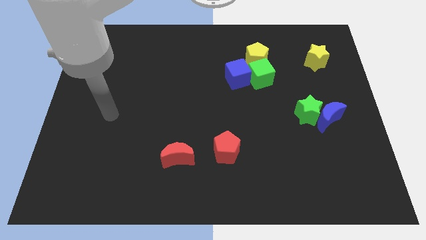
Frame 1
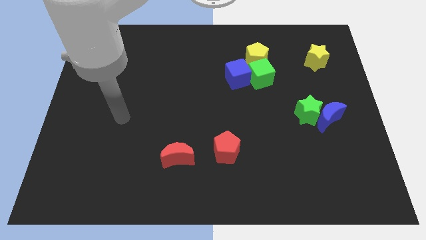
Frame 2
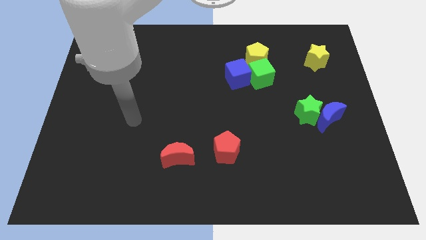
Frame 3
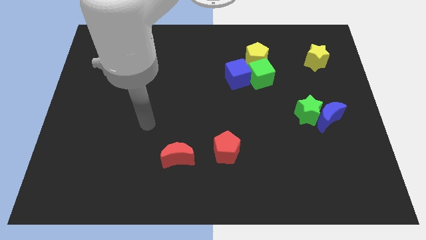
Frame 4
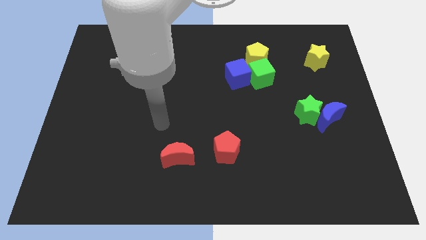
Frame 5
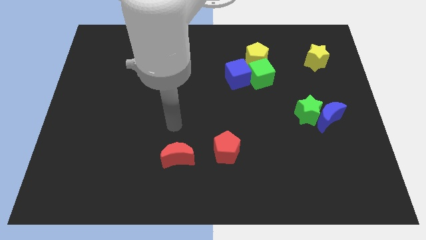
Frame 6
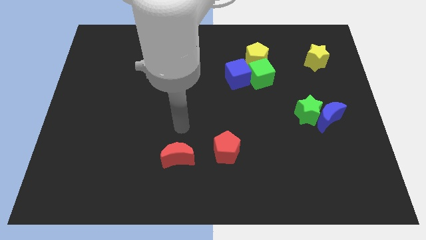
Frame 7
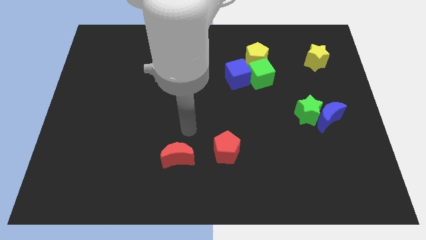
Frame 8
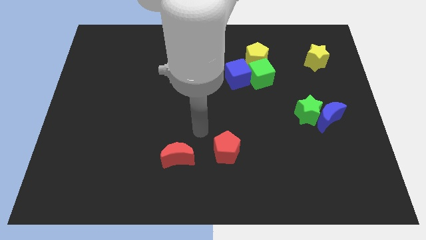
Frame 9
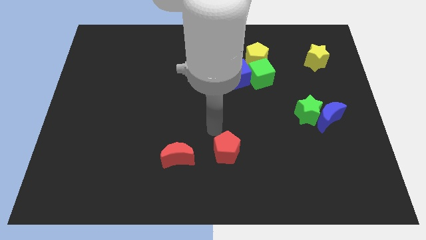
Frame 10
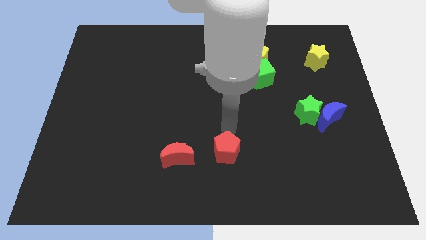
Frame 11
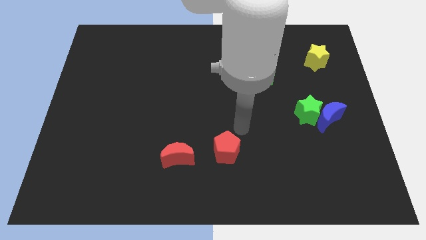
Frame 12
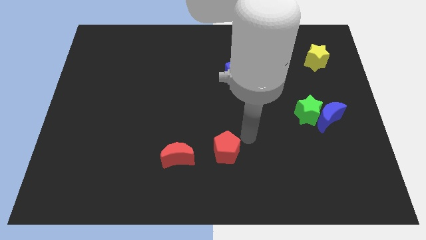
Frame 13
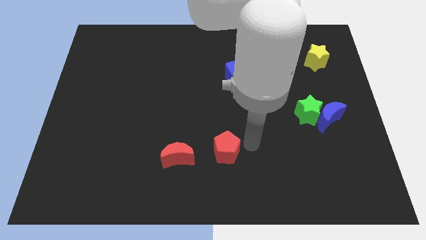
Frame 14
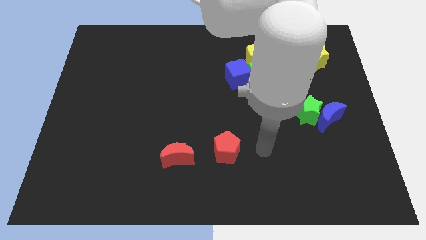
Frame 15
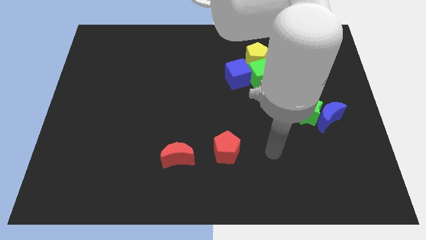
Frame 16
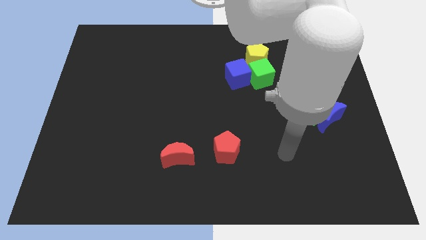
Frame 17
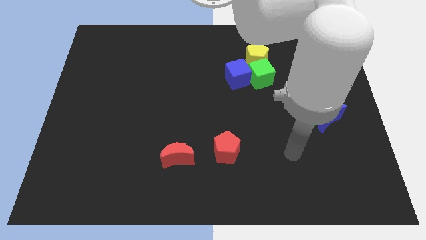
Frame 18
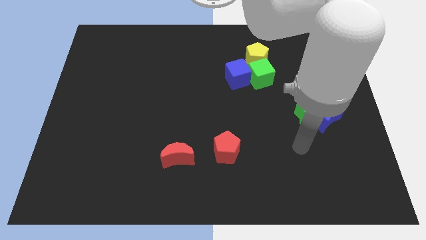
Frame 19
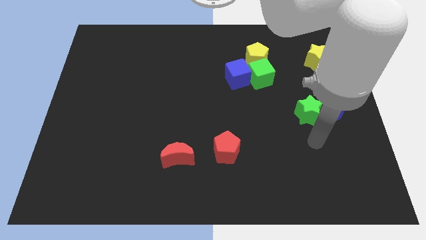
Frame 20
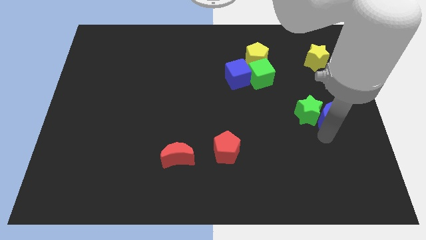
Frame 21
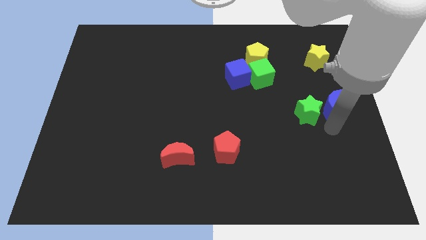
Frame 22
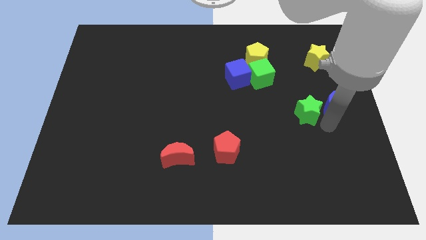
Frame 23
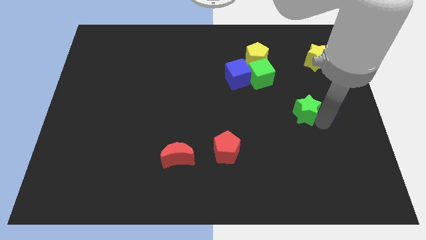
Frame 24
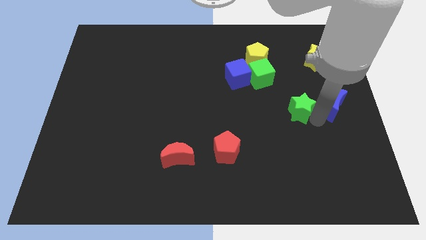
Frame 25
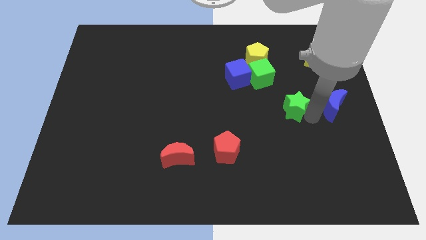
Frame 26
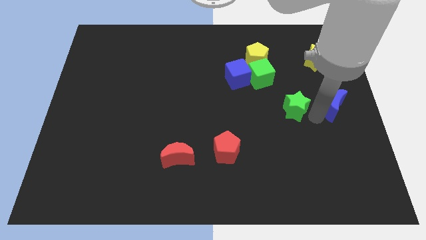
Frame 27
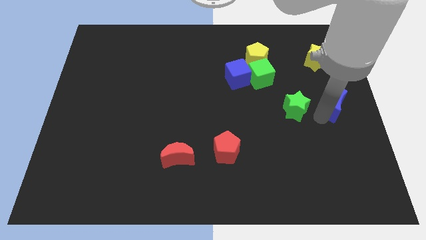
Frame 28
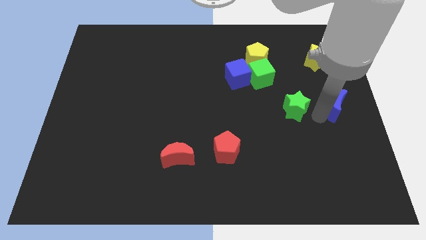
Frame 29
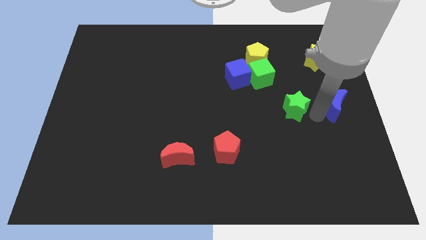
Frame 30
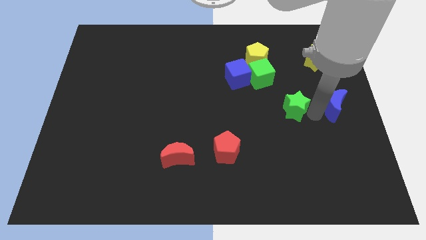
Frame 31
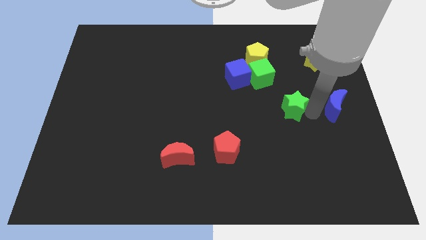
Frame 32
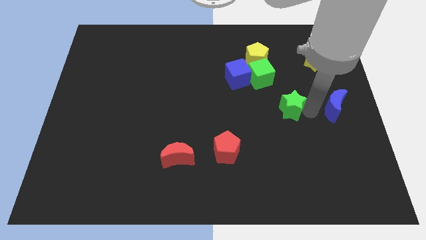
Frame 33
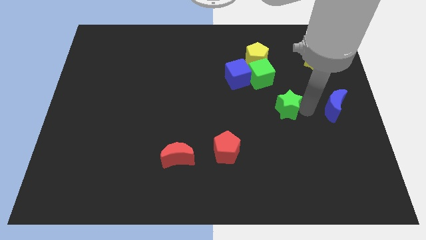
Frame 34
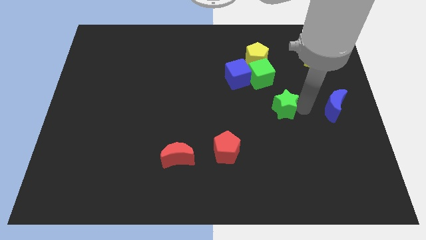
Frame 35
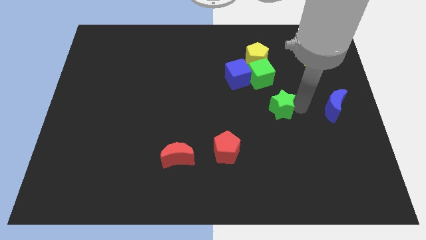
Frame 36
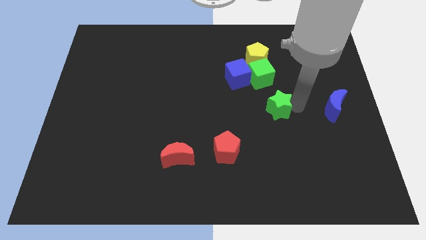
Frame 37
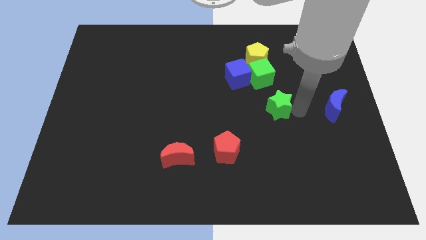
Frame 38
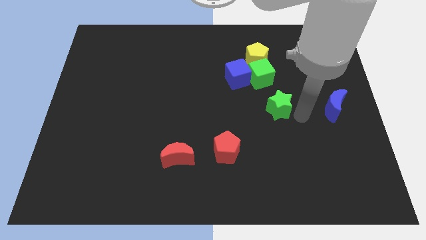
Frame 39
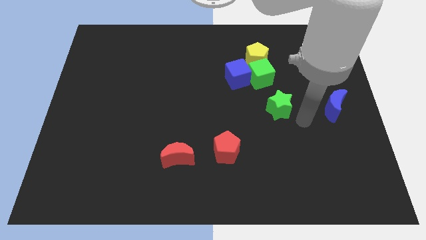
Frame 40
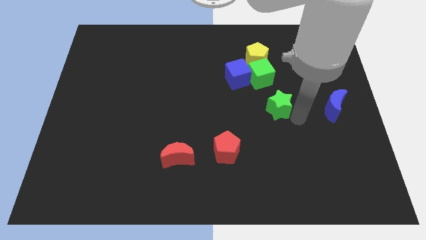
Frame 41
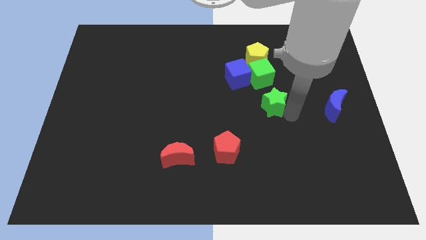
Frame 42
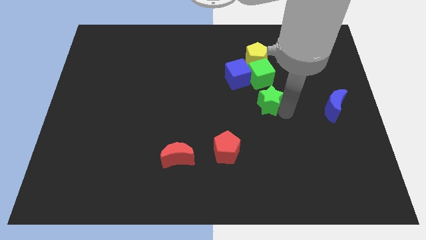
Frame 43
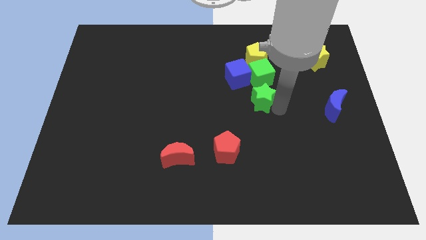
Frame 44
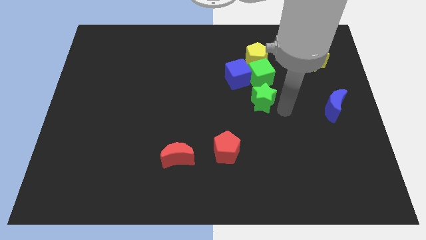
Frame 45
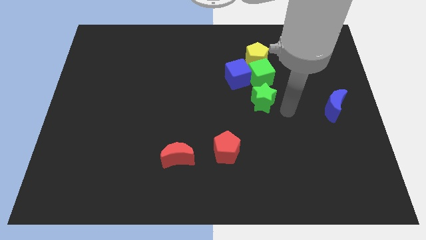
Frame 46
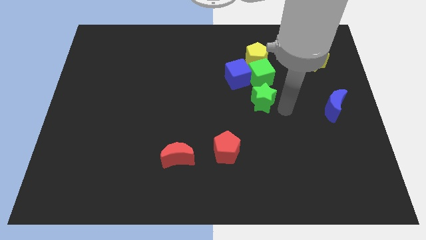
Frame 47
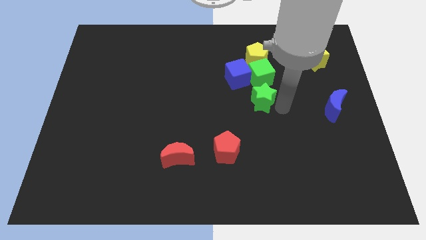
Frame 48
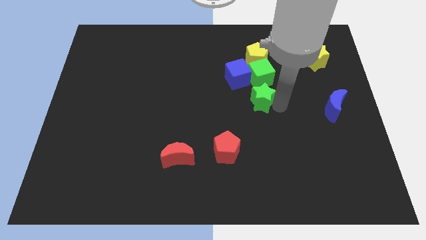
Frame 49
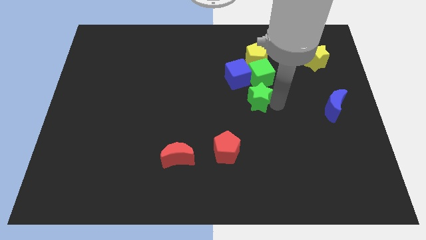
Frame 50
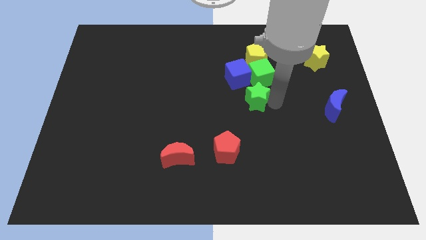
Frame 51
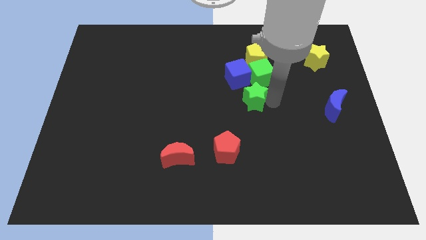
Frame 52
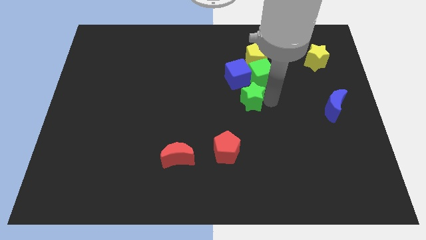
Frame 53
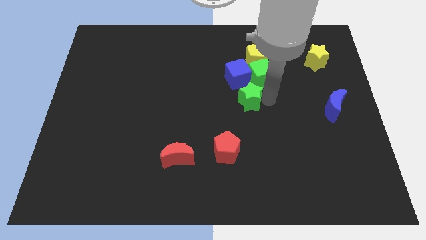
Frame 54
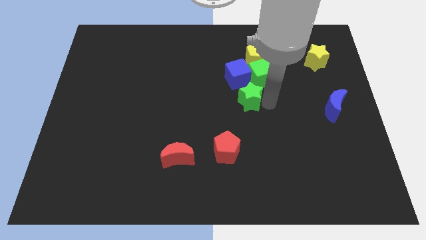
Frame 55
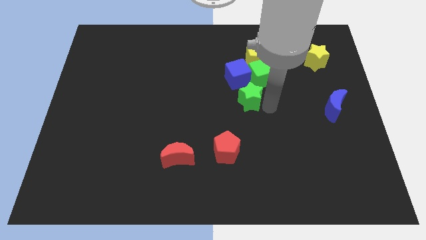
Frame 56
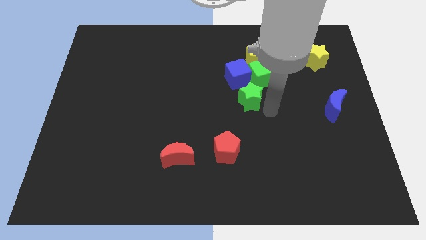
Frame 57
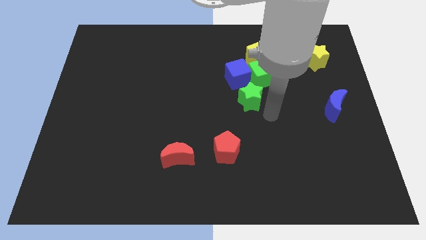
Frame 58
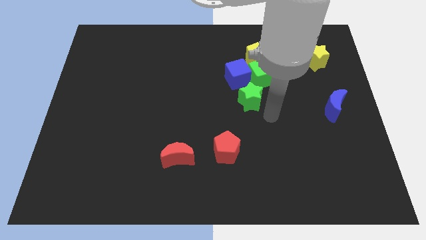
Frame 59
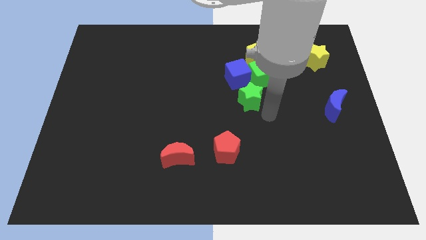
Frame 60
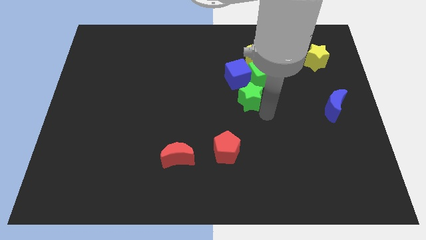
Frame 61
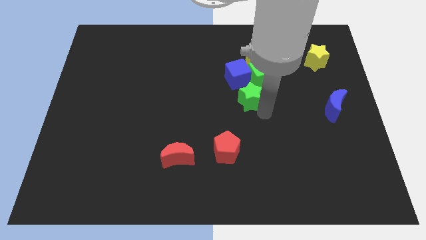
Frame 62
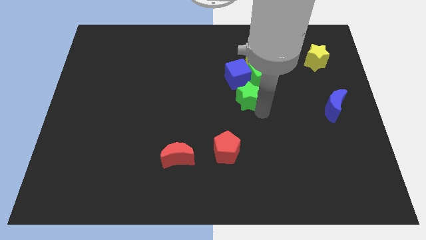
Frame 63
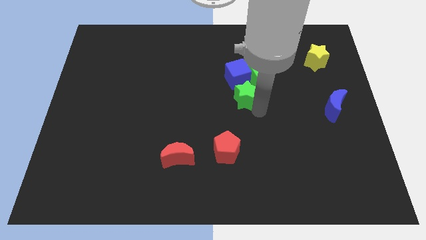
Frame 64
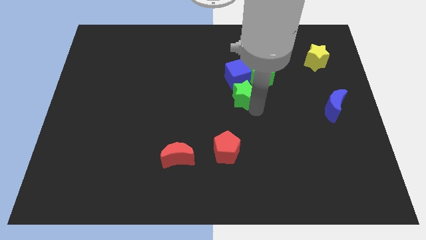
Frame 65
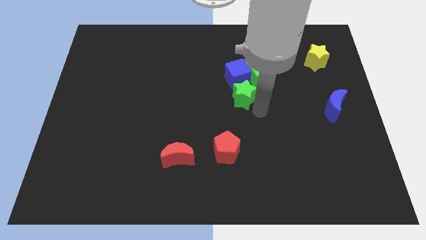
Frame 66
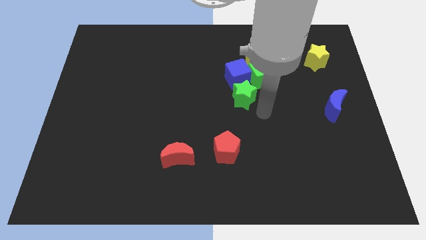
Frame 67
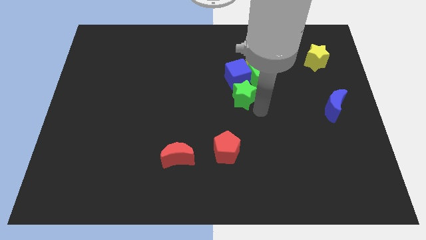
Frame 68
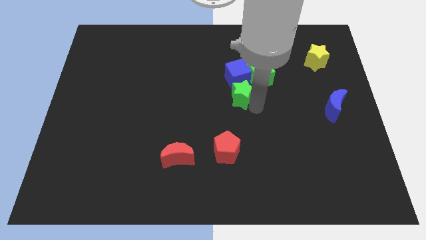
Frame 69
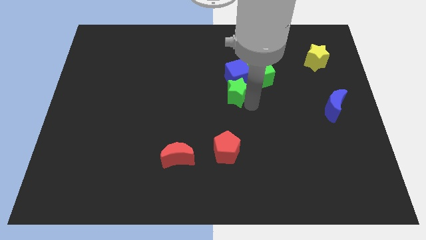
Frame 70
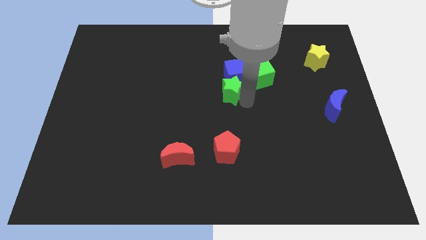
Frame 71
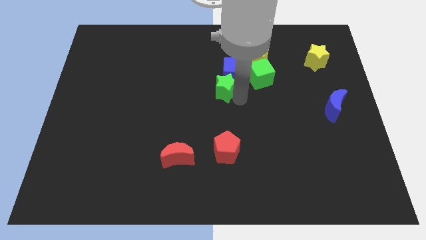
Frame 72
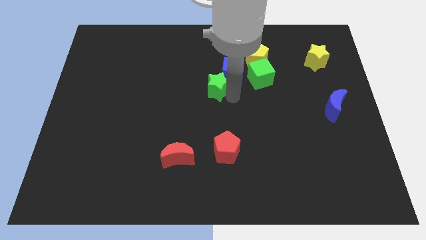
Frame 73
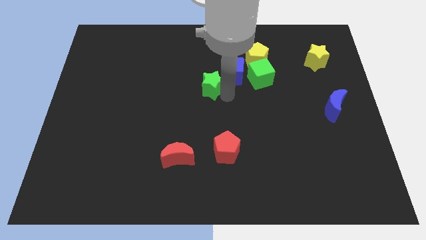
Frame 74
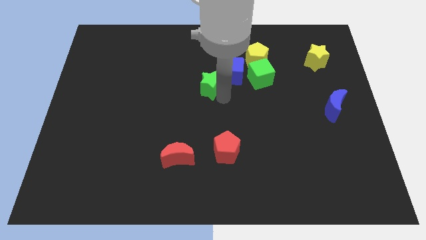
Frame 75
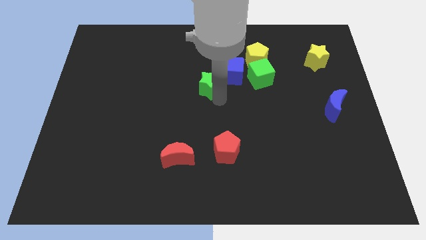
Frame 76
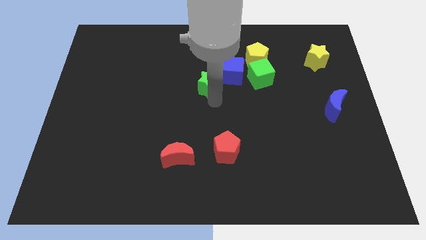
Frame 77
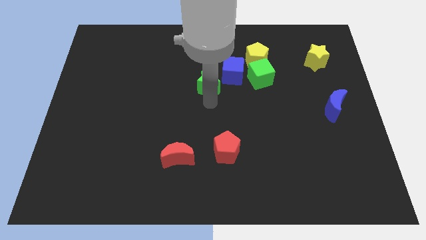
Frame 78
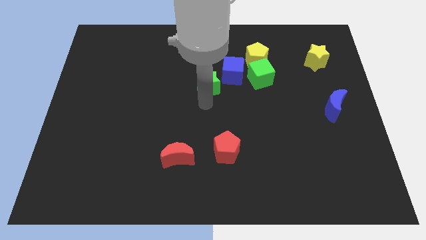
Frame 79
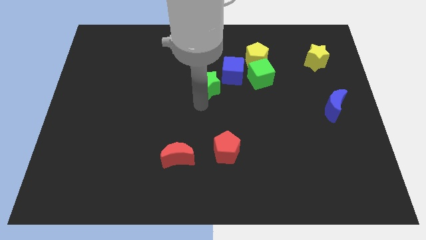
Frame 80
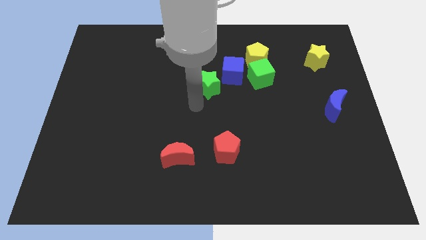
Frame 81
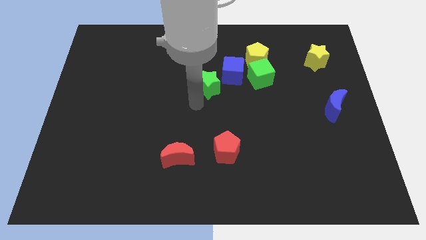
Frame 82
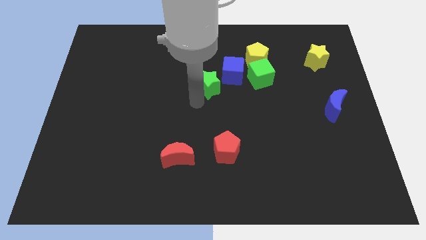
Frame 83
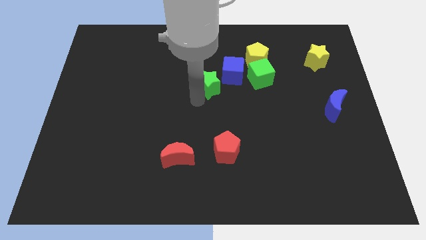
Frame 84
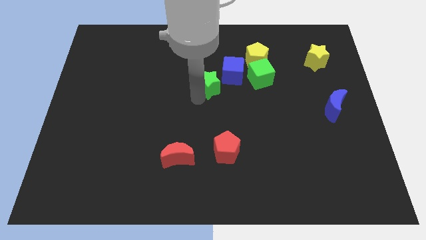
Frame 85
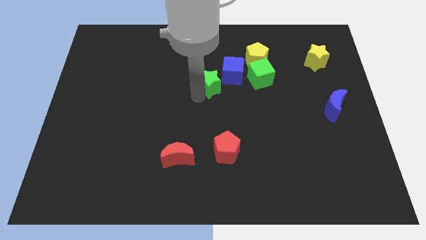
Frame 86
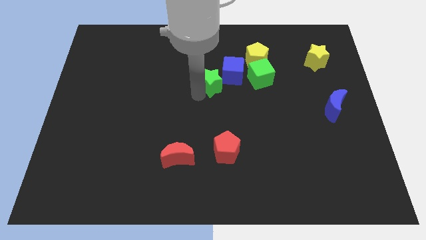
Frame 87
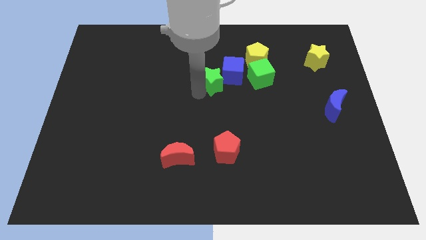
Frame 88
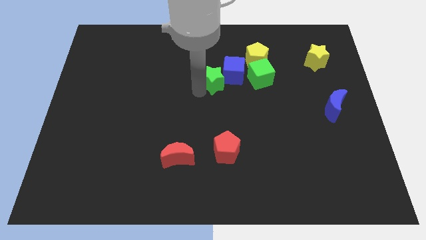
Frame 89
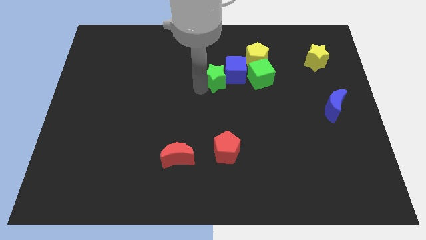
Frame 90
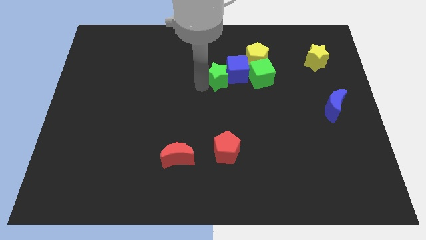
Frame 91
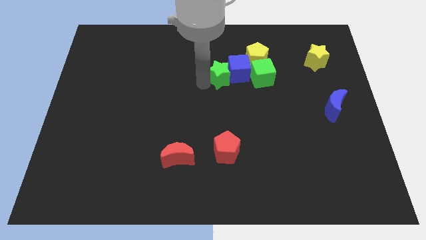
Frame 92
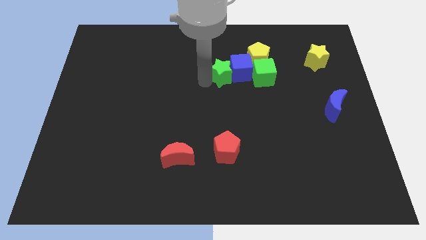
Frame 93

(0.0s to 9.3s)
put the green star to the top left side of the blue cube
